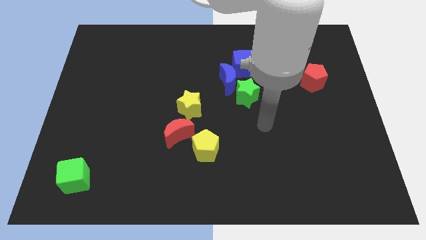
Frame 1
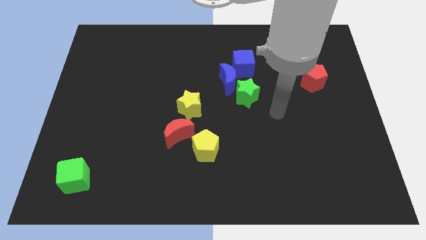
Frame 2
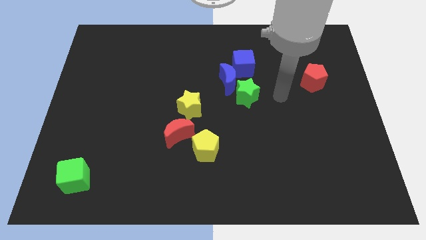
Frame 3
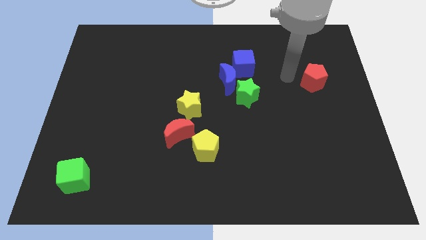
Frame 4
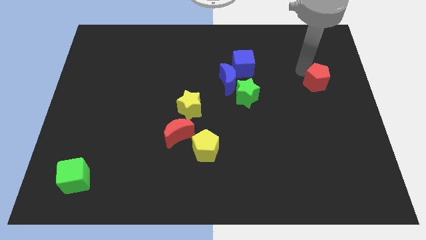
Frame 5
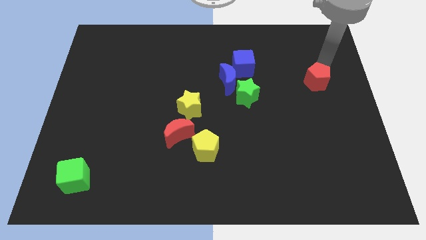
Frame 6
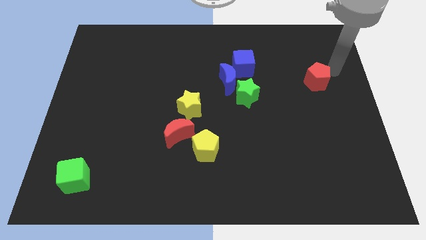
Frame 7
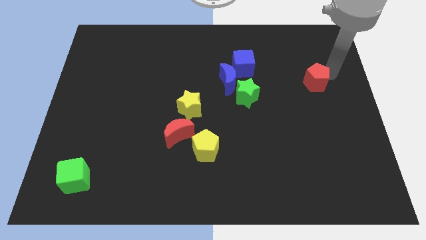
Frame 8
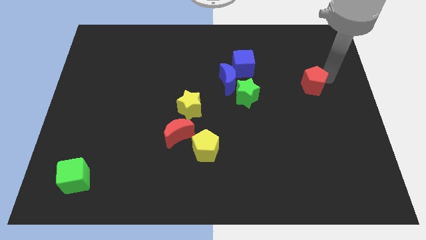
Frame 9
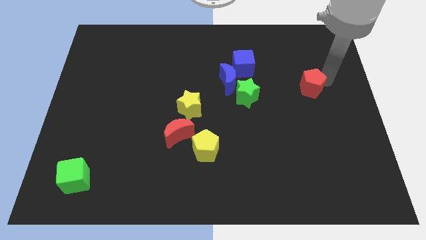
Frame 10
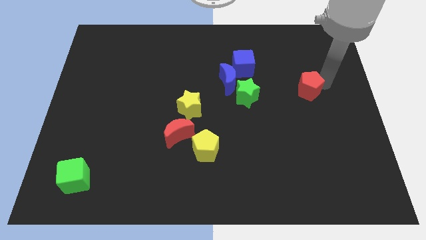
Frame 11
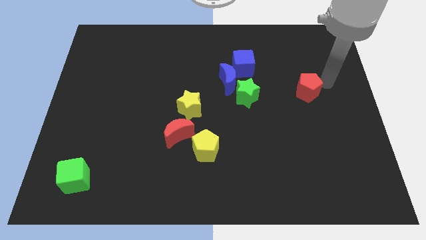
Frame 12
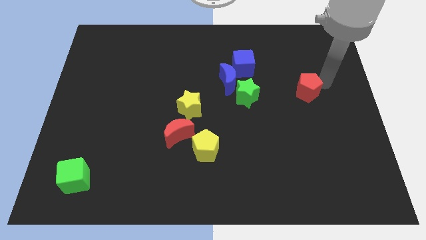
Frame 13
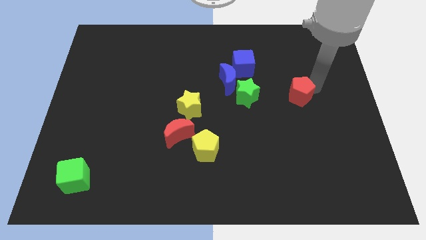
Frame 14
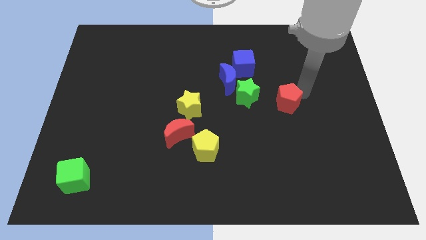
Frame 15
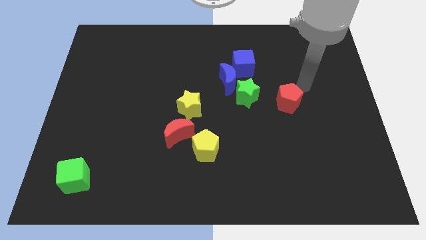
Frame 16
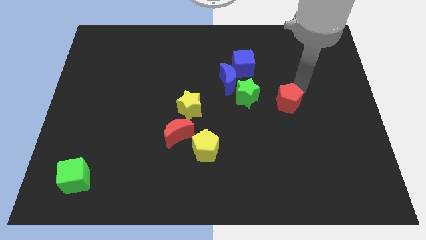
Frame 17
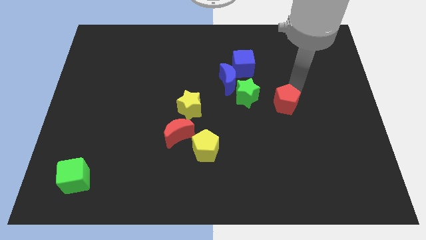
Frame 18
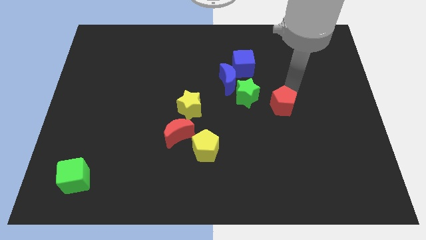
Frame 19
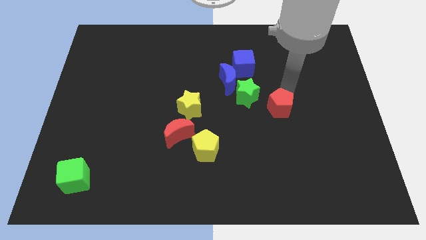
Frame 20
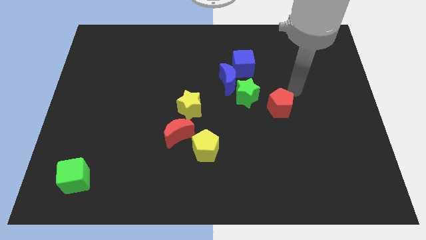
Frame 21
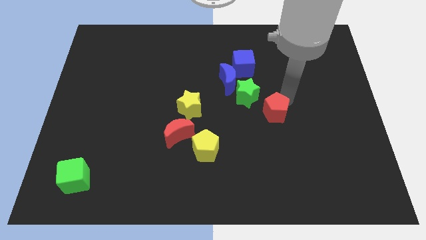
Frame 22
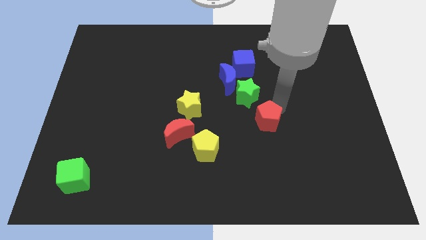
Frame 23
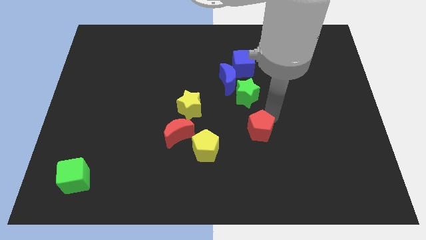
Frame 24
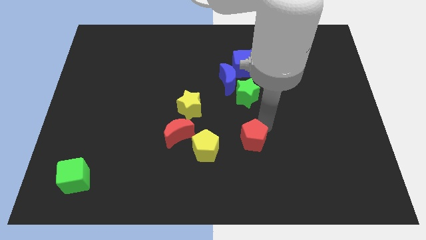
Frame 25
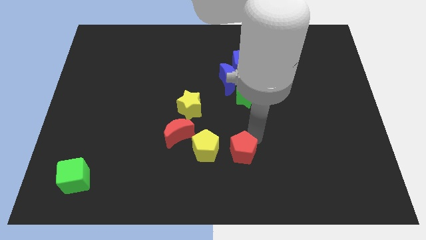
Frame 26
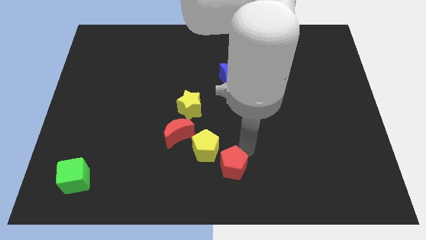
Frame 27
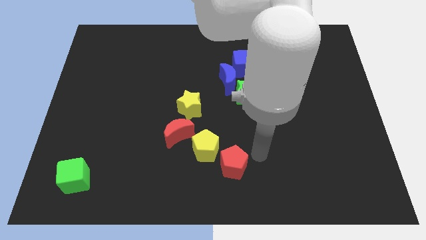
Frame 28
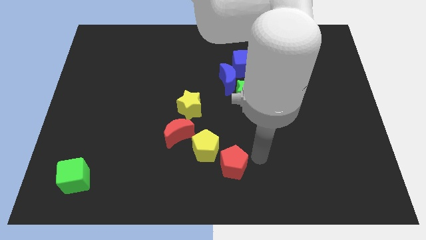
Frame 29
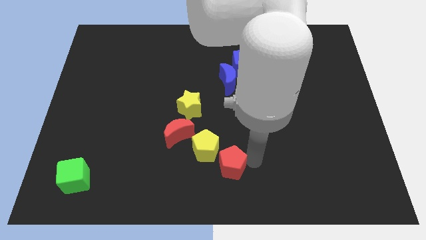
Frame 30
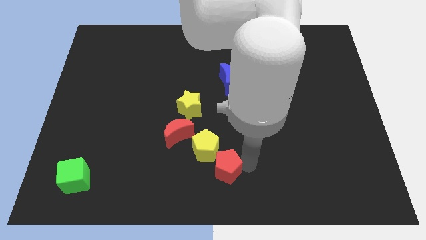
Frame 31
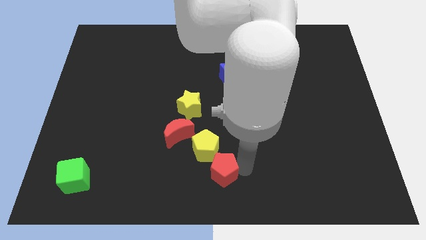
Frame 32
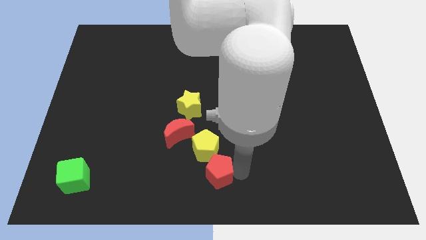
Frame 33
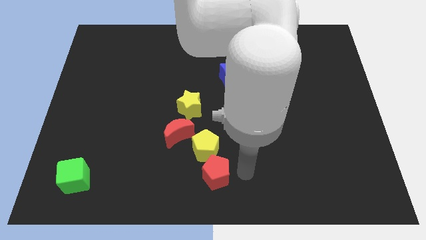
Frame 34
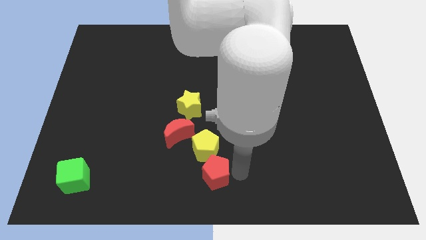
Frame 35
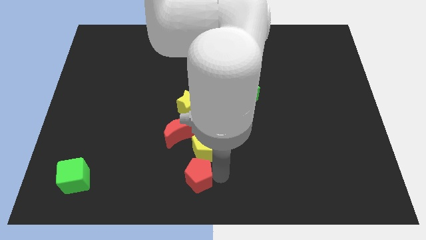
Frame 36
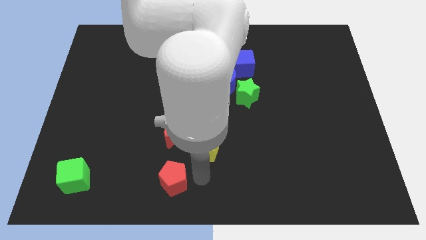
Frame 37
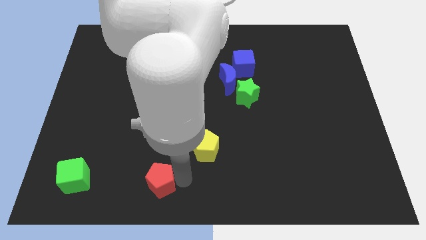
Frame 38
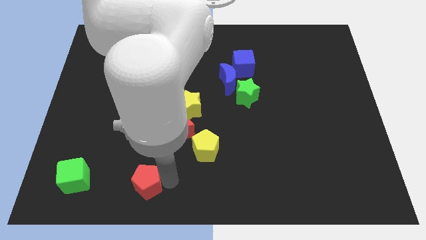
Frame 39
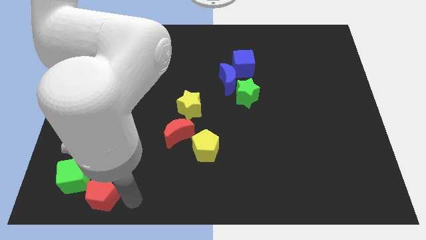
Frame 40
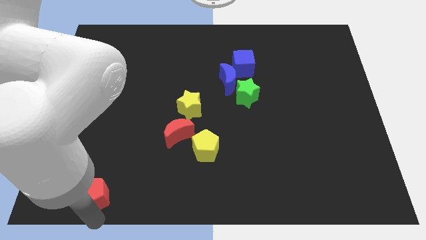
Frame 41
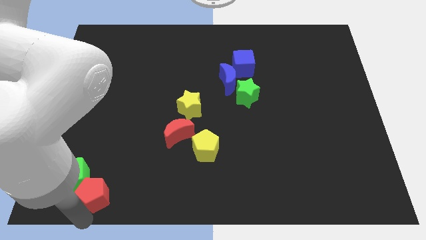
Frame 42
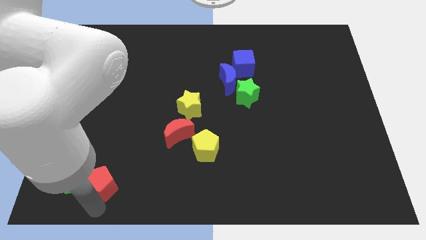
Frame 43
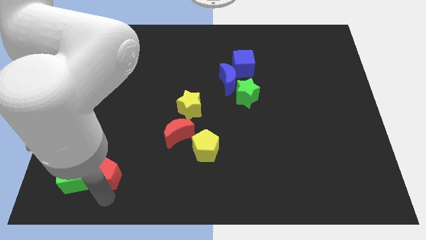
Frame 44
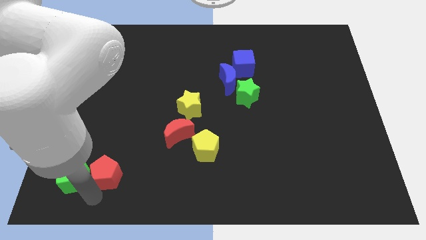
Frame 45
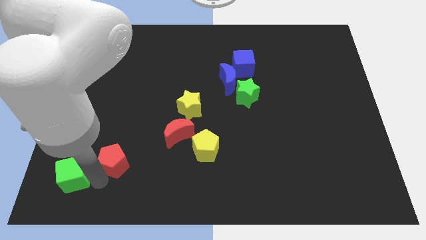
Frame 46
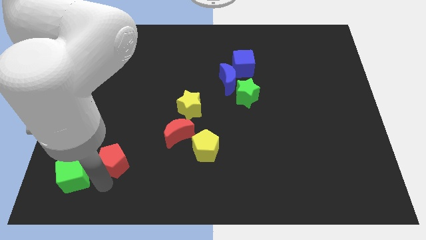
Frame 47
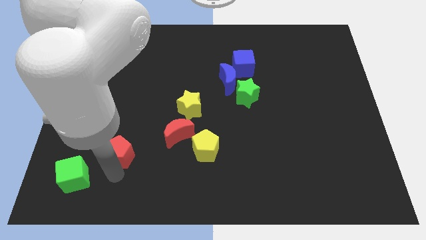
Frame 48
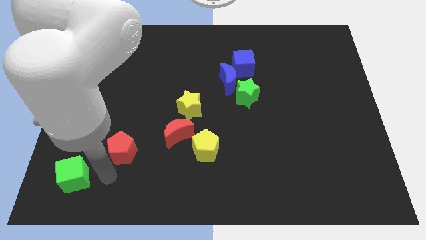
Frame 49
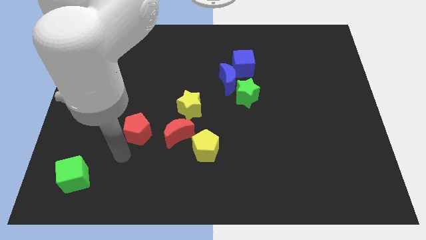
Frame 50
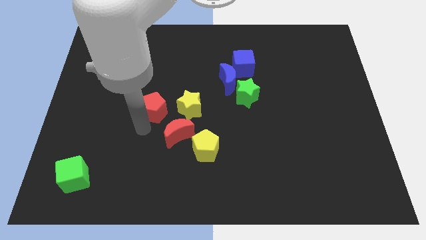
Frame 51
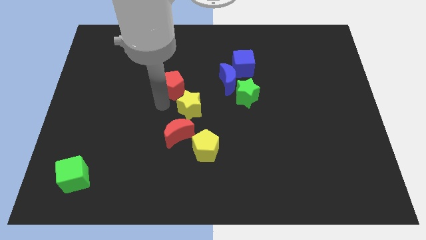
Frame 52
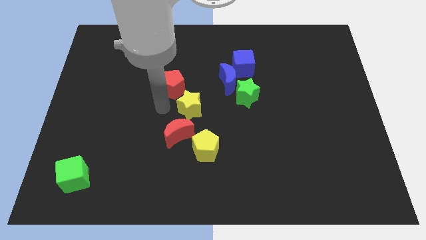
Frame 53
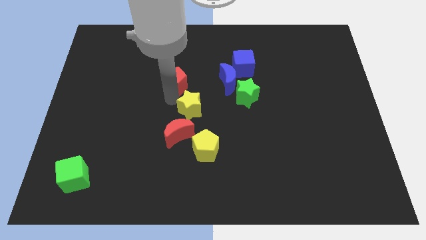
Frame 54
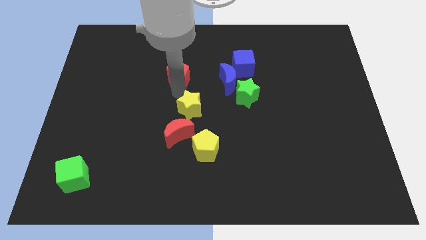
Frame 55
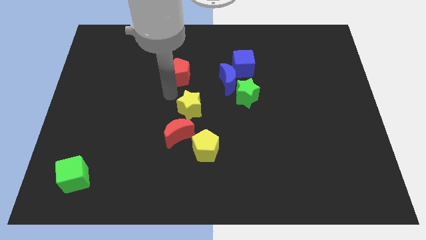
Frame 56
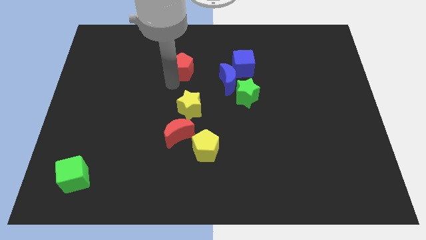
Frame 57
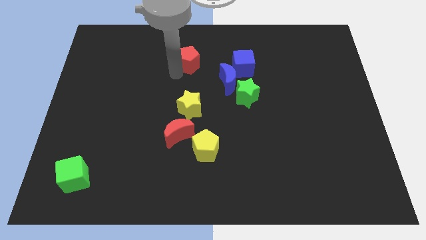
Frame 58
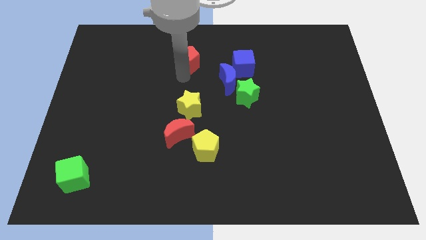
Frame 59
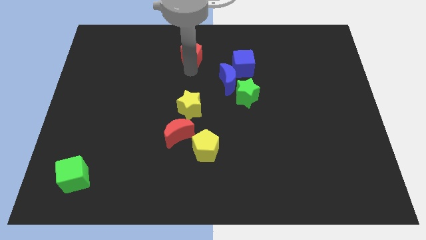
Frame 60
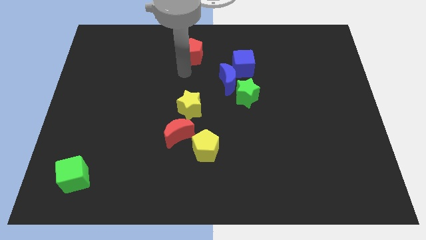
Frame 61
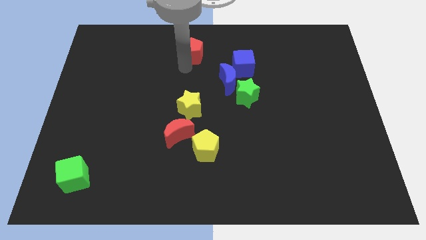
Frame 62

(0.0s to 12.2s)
move the red pentagon to the top side
